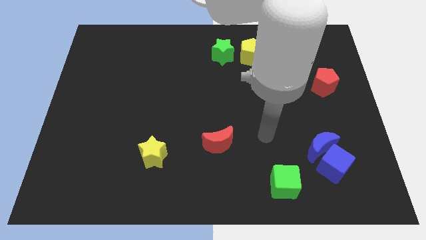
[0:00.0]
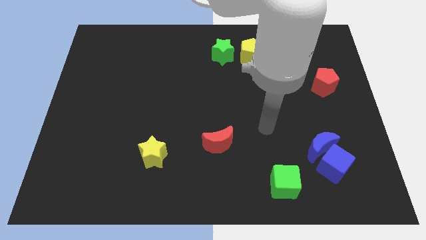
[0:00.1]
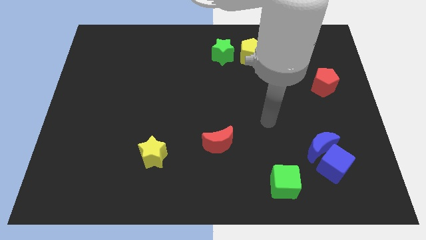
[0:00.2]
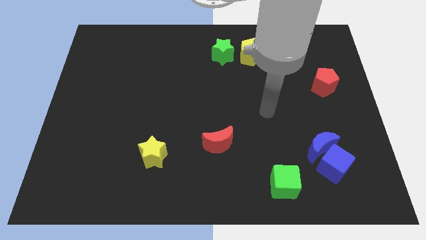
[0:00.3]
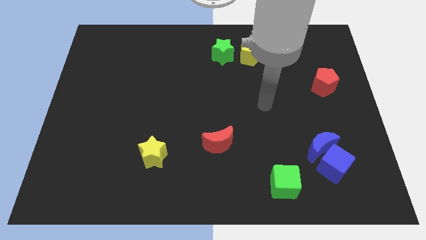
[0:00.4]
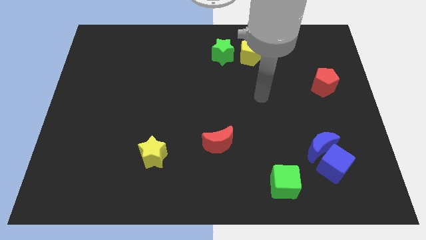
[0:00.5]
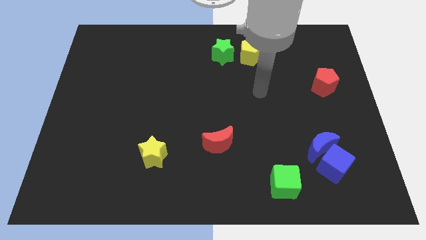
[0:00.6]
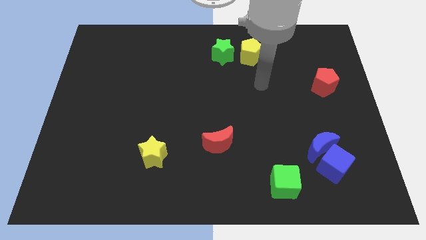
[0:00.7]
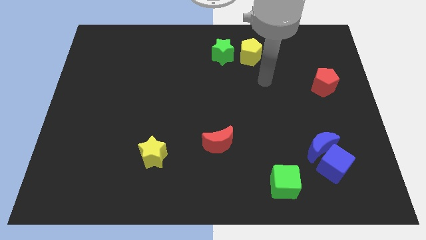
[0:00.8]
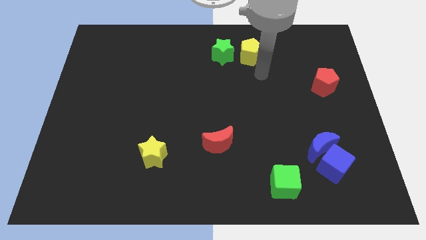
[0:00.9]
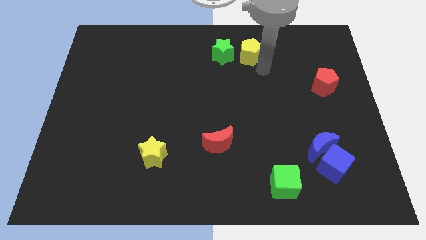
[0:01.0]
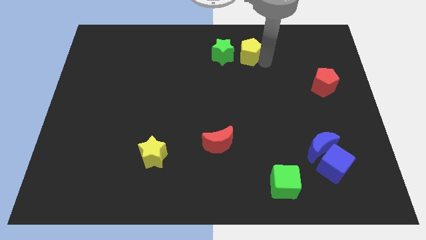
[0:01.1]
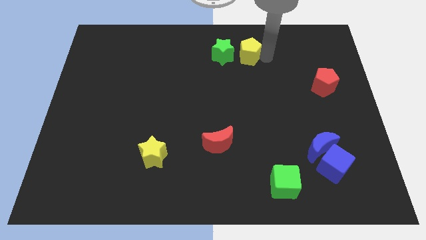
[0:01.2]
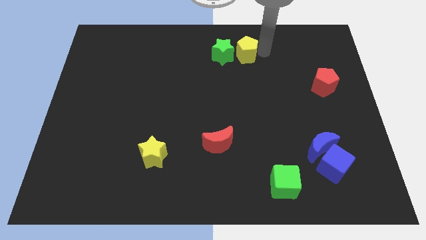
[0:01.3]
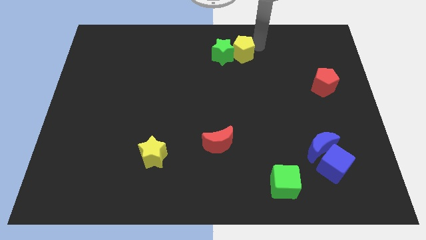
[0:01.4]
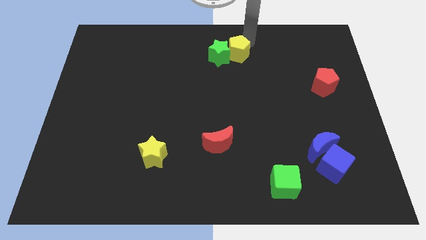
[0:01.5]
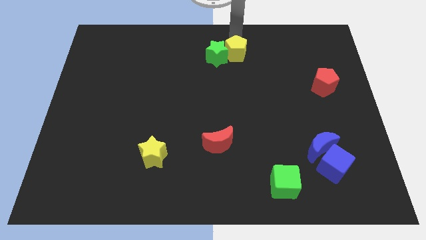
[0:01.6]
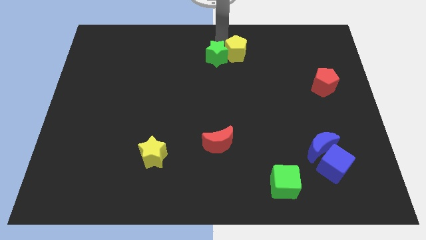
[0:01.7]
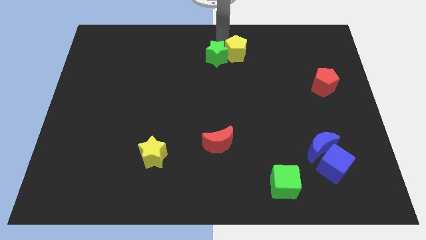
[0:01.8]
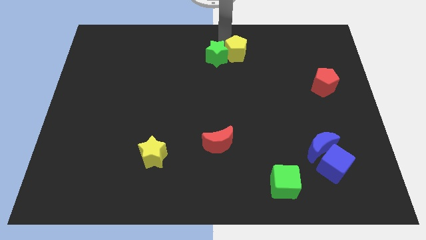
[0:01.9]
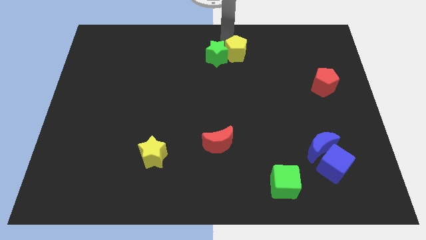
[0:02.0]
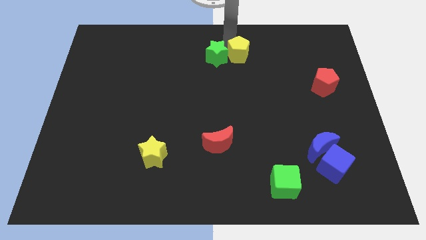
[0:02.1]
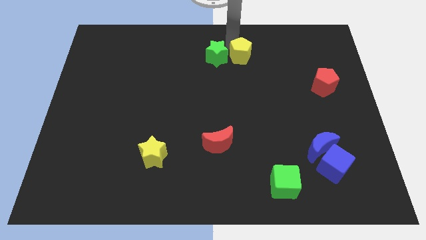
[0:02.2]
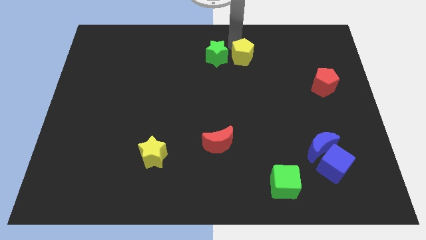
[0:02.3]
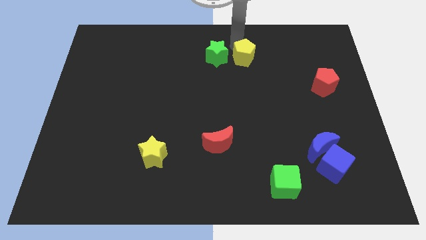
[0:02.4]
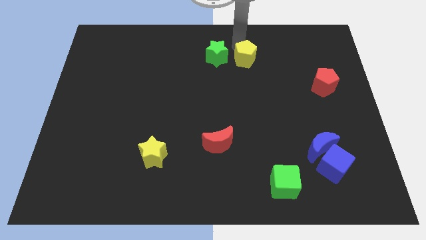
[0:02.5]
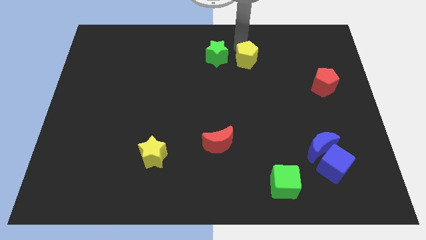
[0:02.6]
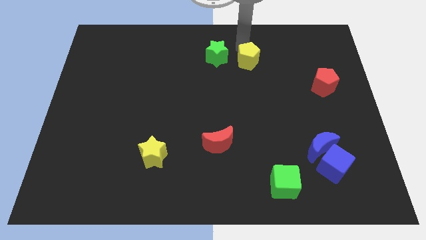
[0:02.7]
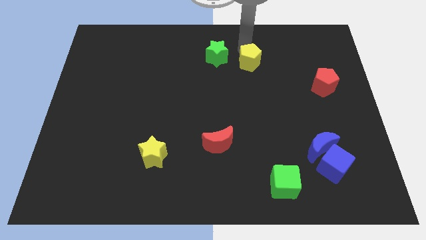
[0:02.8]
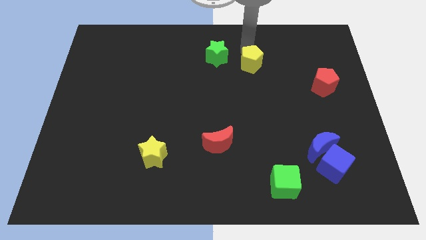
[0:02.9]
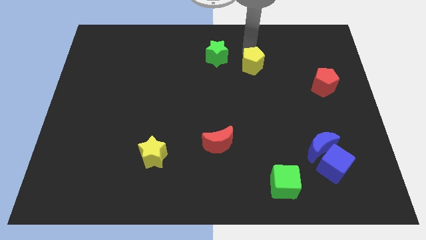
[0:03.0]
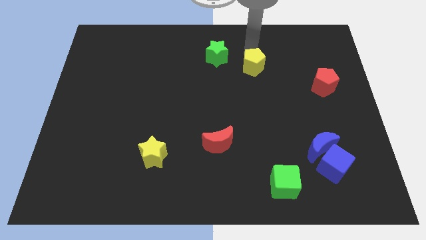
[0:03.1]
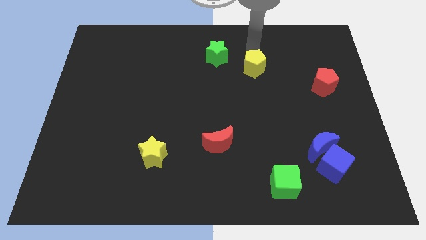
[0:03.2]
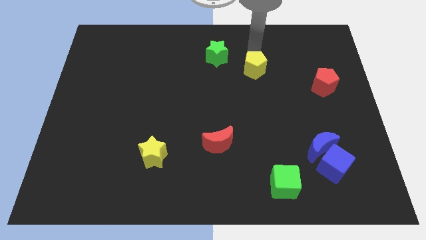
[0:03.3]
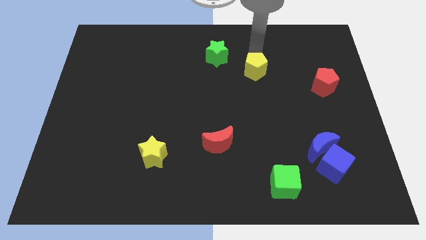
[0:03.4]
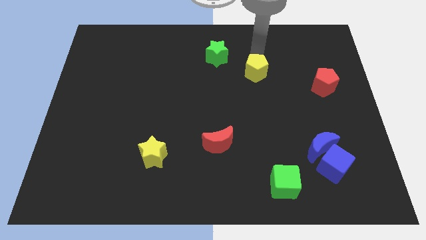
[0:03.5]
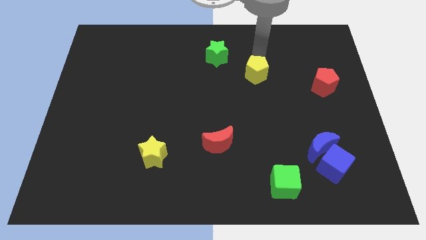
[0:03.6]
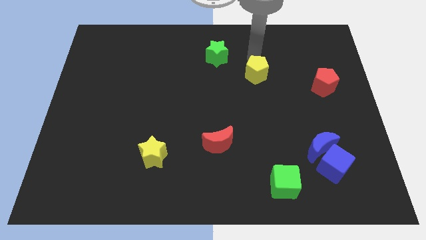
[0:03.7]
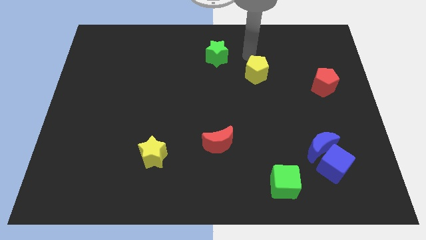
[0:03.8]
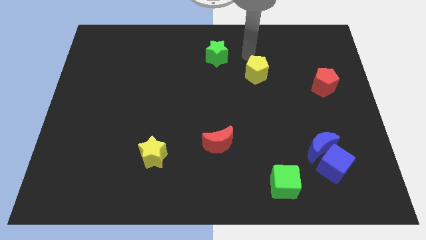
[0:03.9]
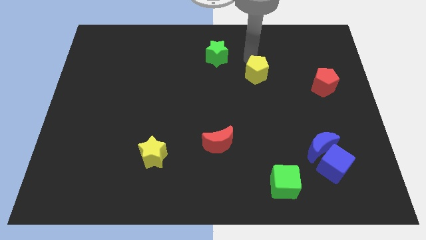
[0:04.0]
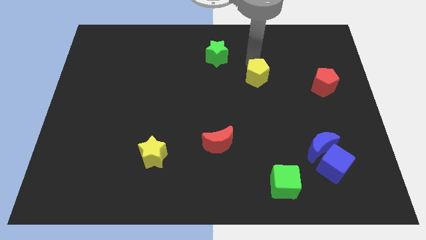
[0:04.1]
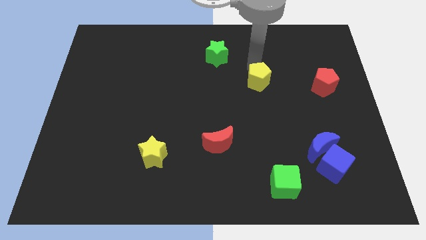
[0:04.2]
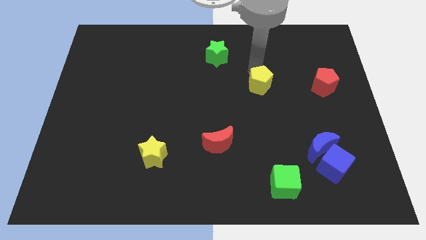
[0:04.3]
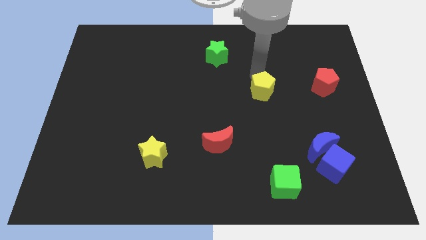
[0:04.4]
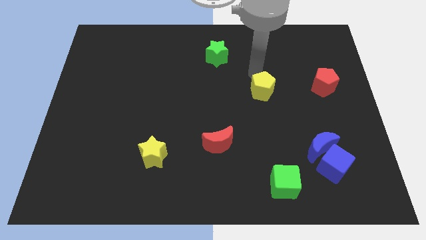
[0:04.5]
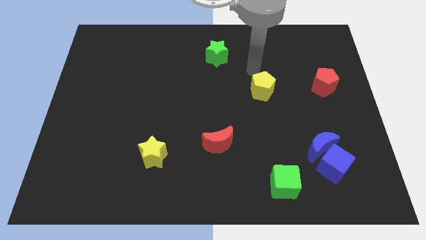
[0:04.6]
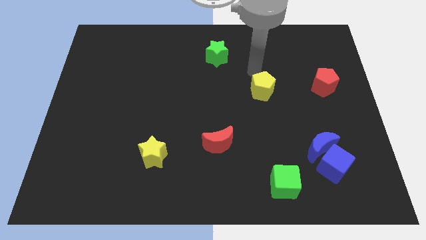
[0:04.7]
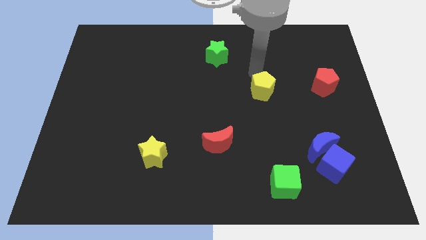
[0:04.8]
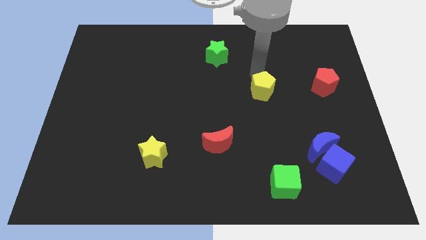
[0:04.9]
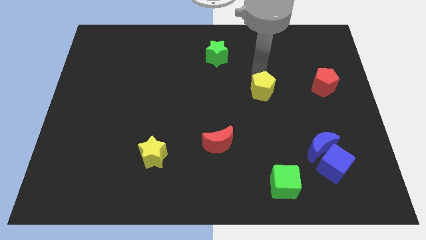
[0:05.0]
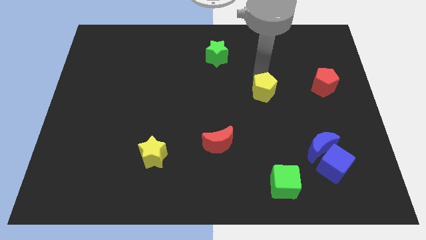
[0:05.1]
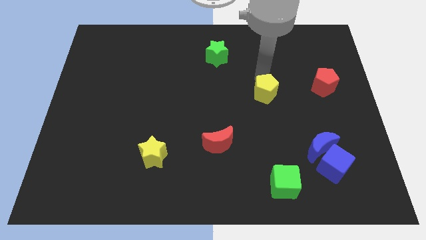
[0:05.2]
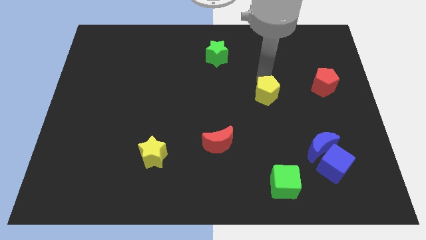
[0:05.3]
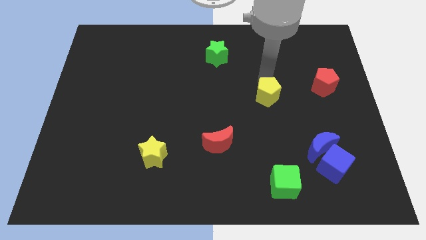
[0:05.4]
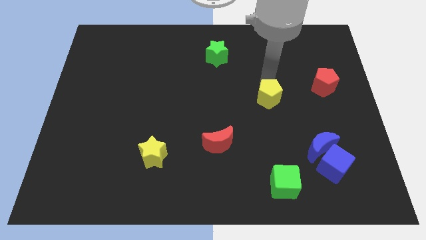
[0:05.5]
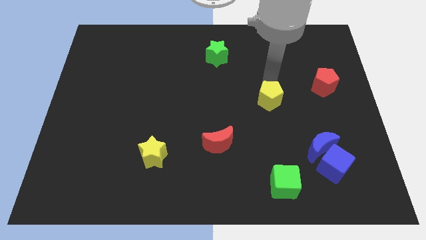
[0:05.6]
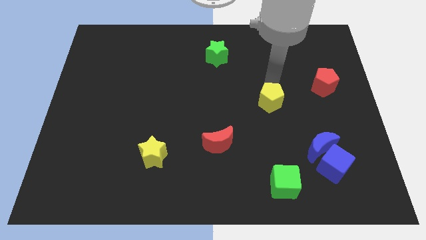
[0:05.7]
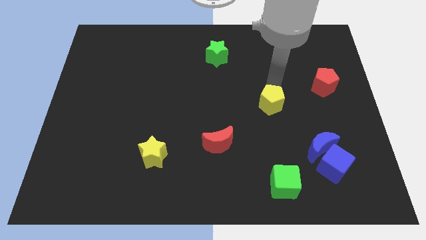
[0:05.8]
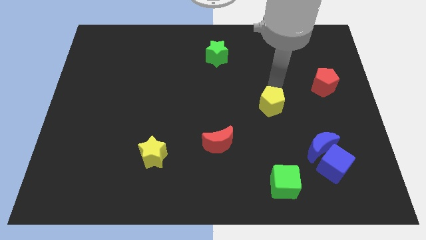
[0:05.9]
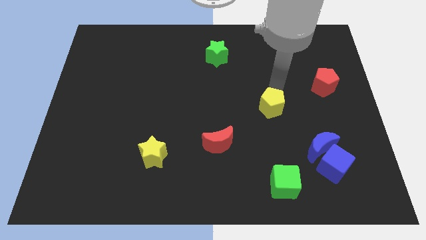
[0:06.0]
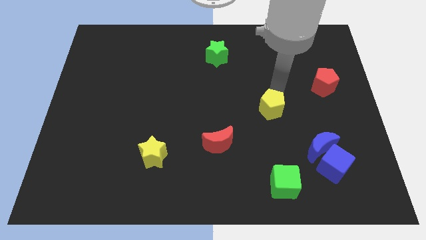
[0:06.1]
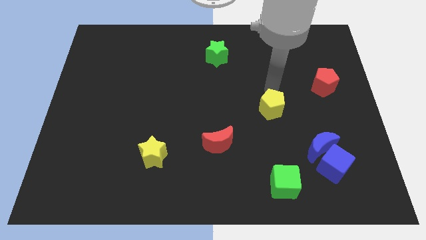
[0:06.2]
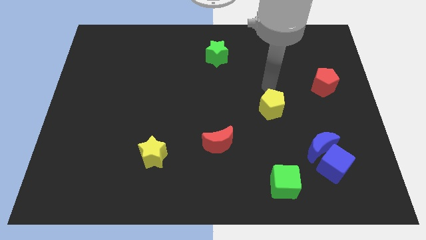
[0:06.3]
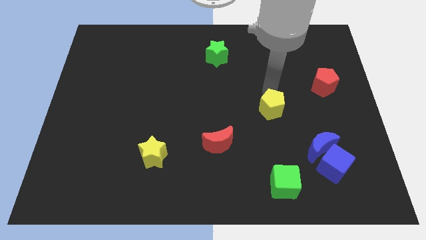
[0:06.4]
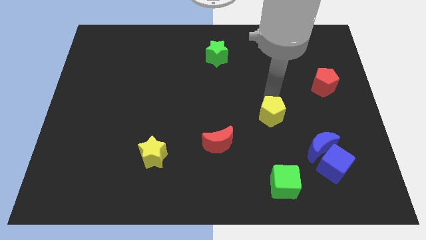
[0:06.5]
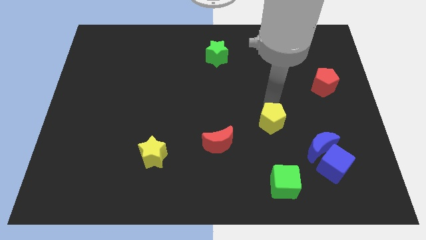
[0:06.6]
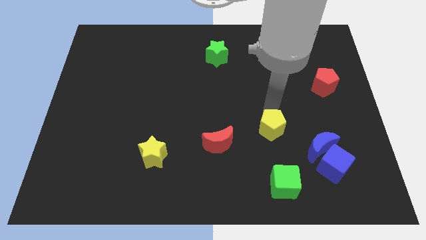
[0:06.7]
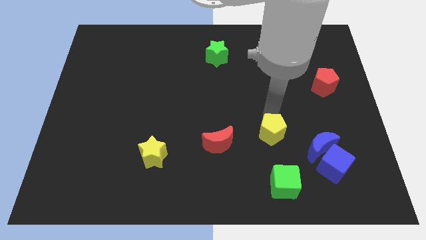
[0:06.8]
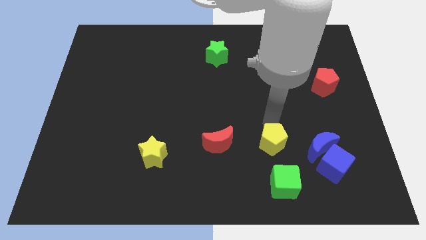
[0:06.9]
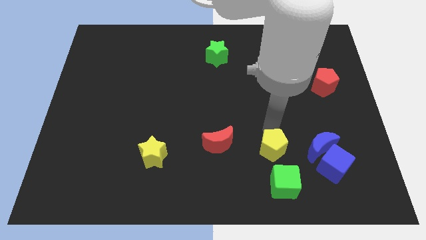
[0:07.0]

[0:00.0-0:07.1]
push the yellow pentagon to the left side of the blue cube
